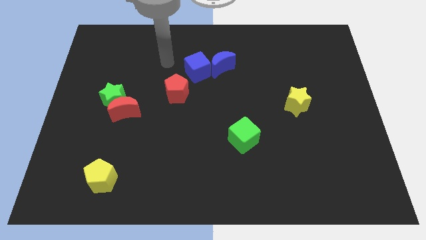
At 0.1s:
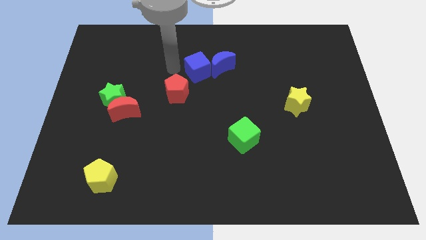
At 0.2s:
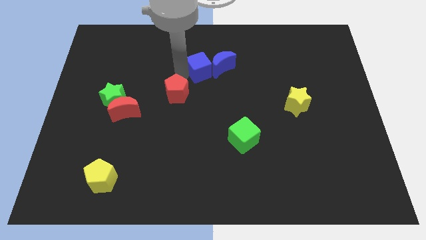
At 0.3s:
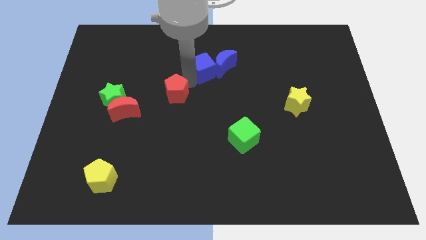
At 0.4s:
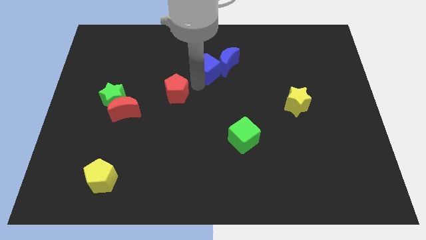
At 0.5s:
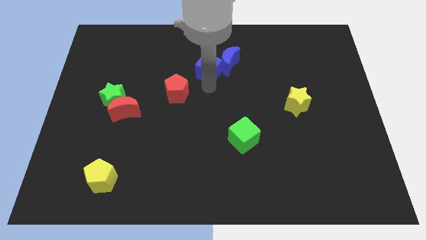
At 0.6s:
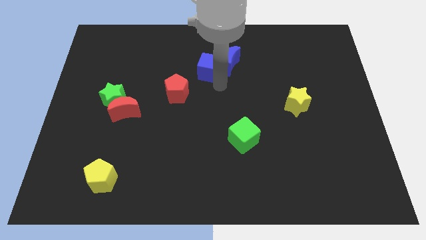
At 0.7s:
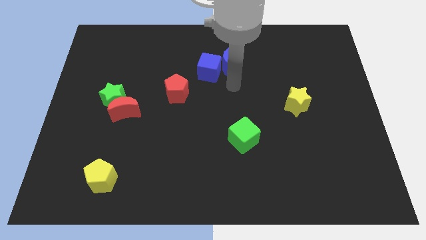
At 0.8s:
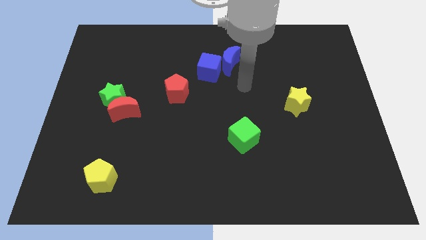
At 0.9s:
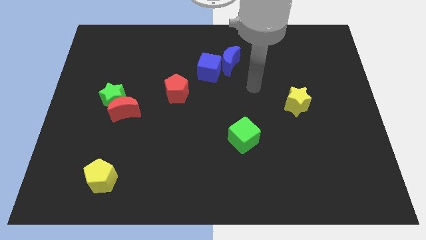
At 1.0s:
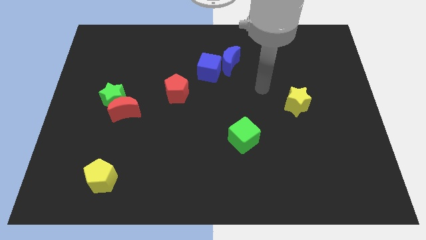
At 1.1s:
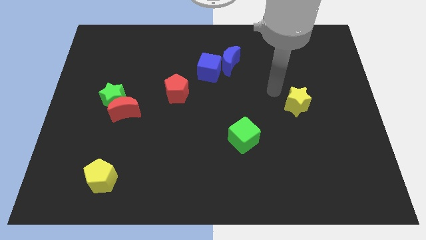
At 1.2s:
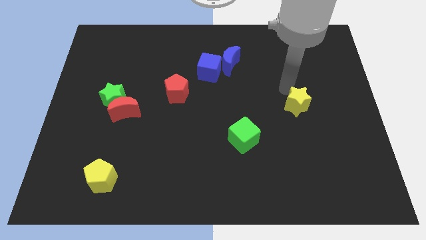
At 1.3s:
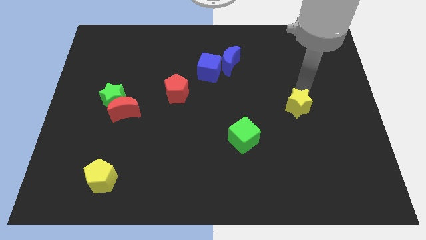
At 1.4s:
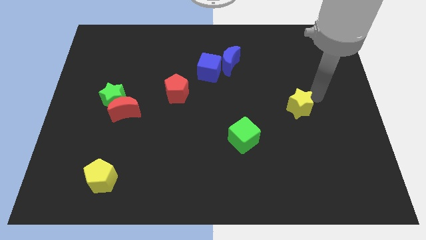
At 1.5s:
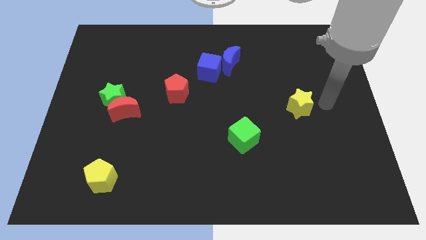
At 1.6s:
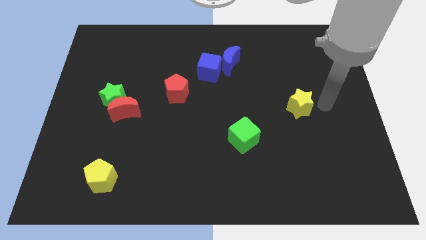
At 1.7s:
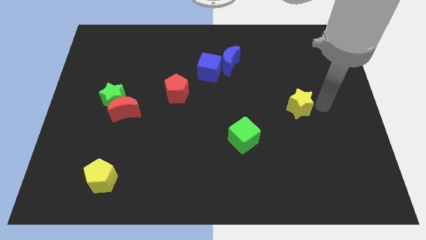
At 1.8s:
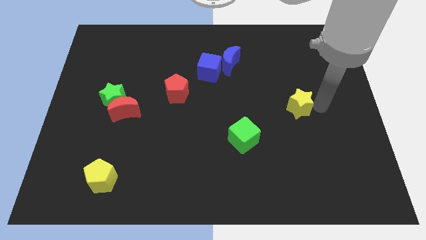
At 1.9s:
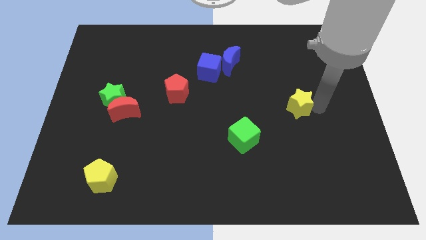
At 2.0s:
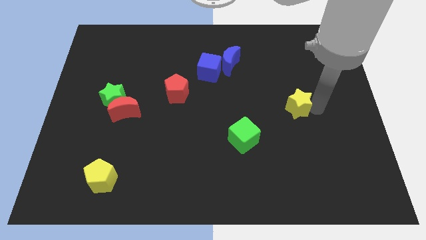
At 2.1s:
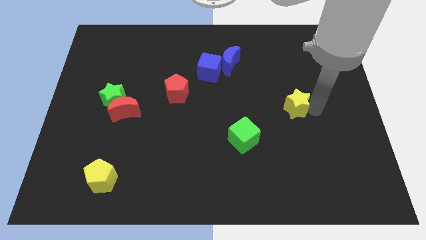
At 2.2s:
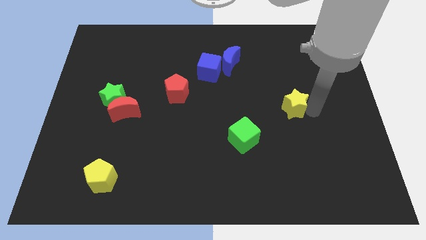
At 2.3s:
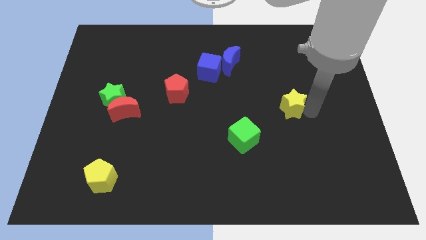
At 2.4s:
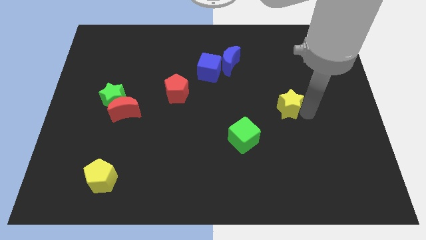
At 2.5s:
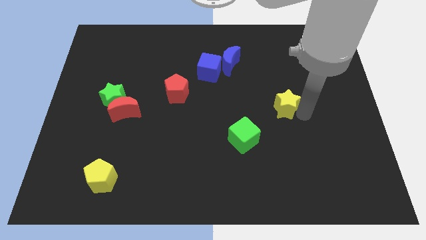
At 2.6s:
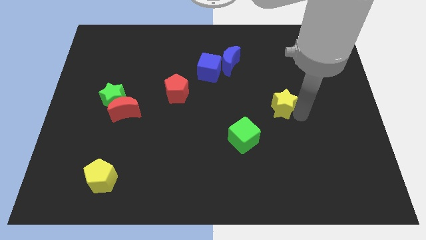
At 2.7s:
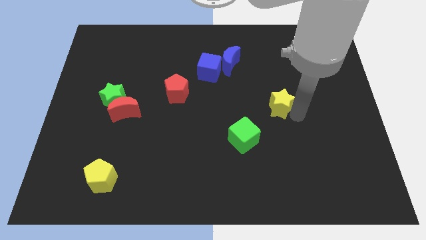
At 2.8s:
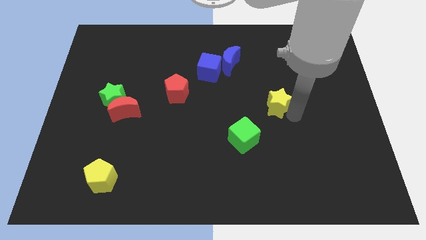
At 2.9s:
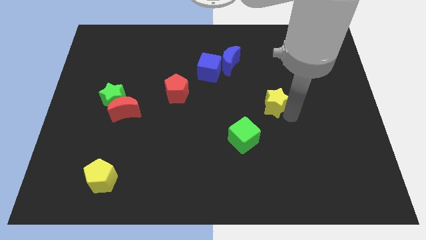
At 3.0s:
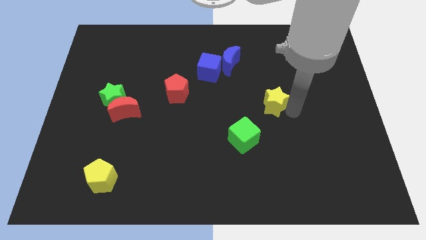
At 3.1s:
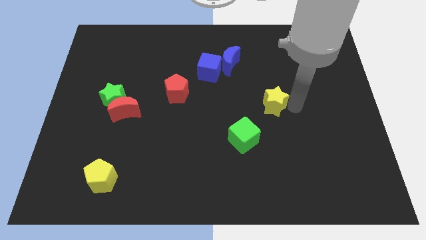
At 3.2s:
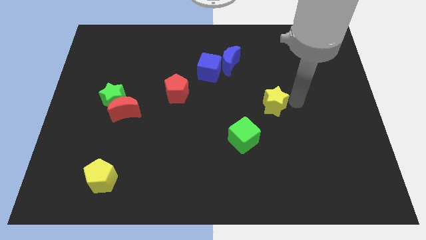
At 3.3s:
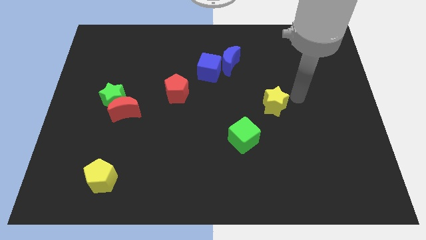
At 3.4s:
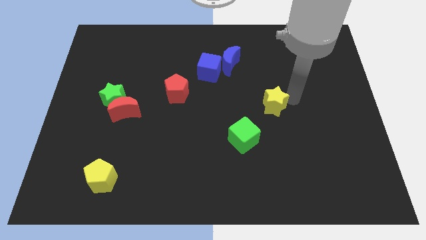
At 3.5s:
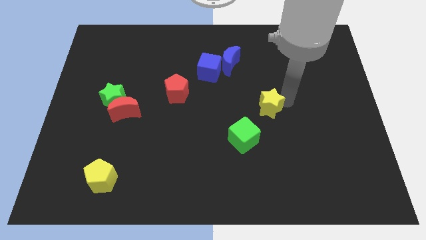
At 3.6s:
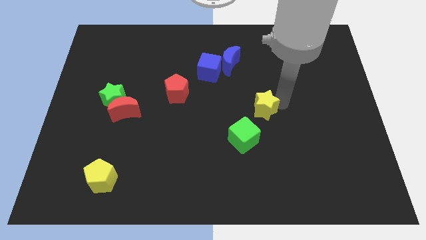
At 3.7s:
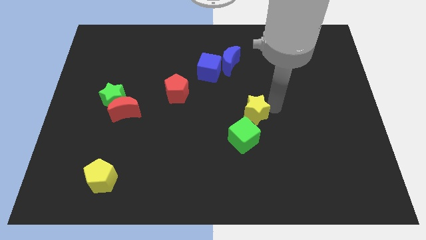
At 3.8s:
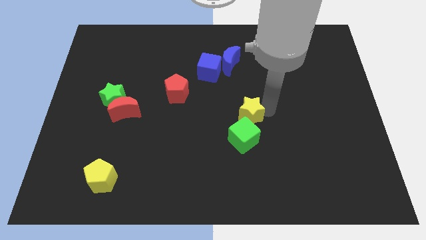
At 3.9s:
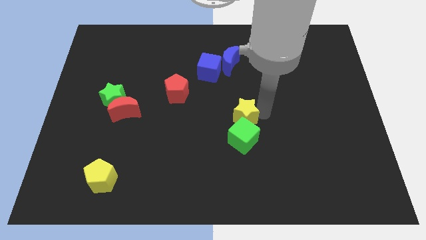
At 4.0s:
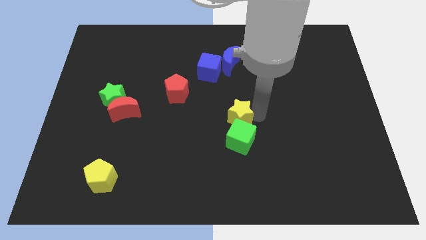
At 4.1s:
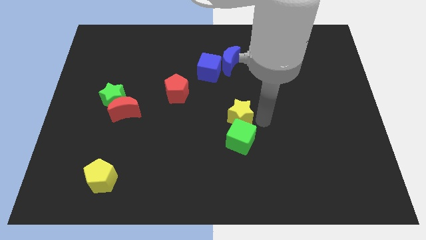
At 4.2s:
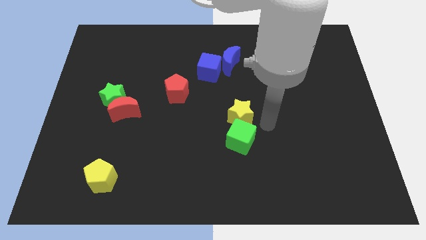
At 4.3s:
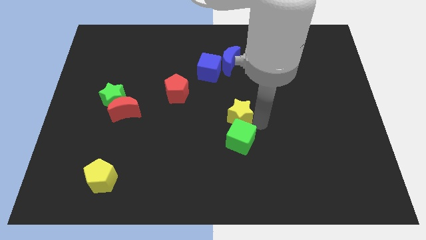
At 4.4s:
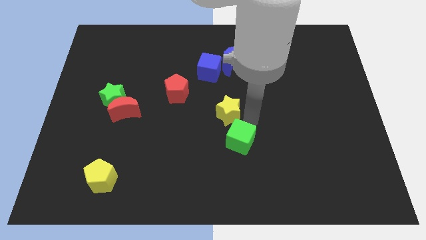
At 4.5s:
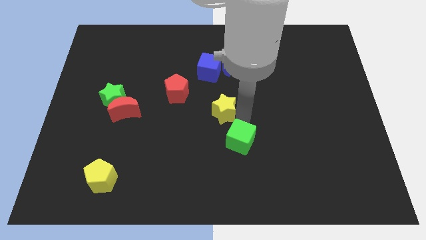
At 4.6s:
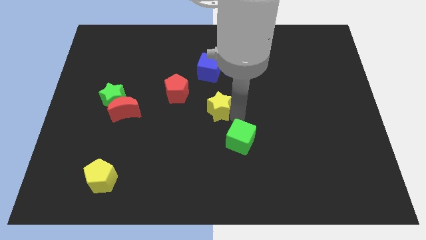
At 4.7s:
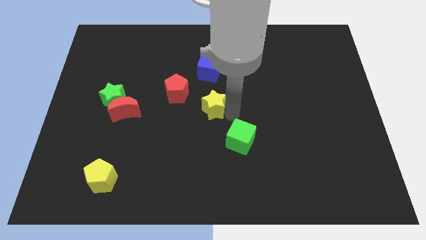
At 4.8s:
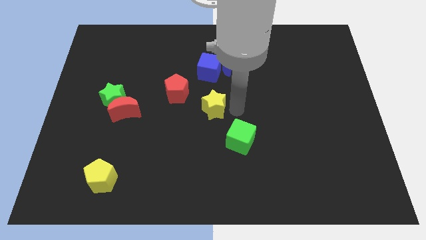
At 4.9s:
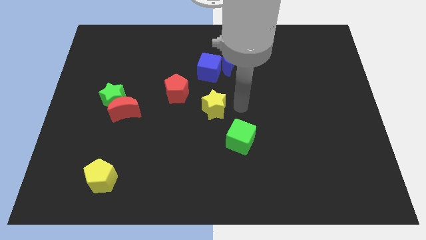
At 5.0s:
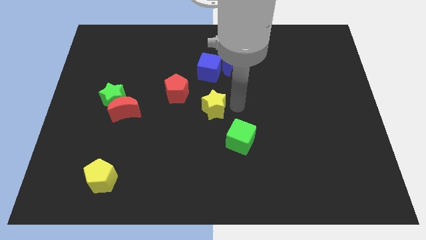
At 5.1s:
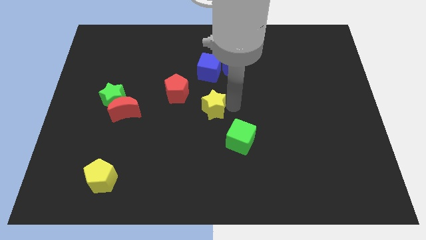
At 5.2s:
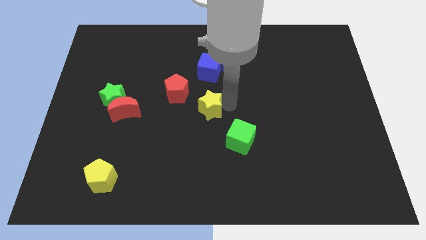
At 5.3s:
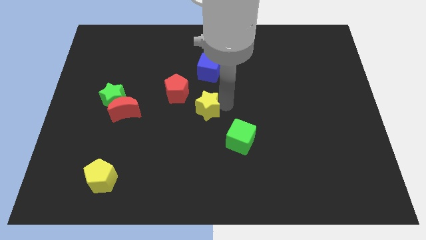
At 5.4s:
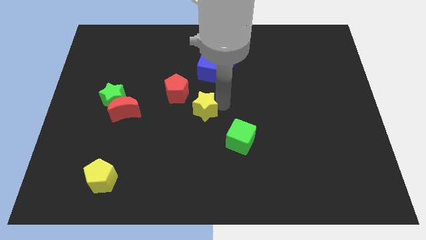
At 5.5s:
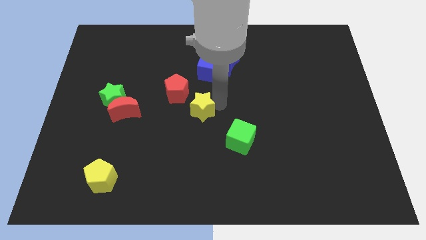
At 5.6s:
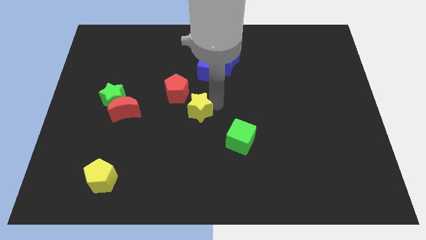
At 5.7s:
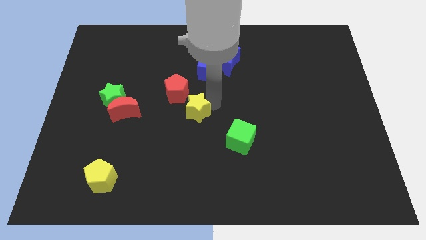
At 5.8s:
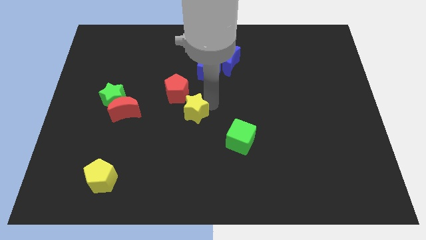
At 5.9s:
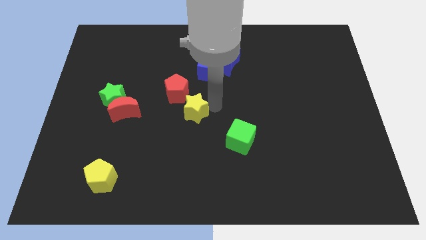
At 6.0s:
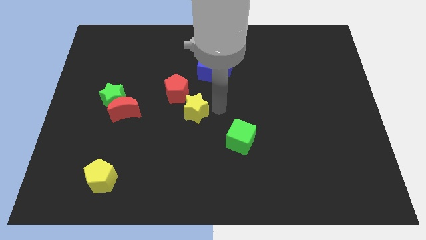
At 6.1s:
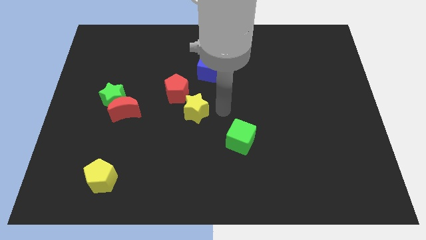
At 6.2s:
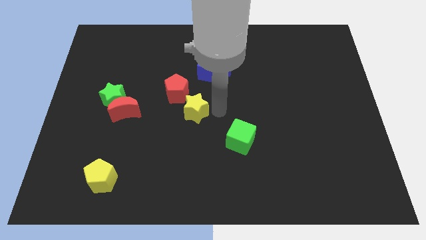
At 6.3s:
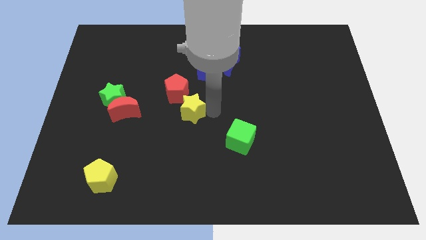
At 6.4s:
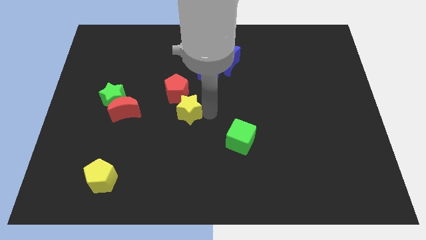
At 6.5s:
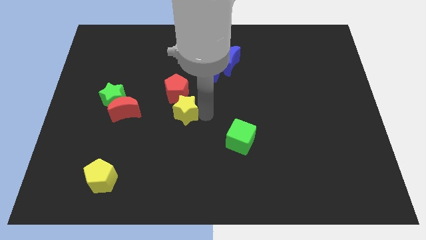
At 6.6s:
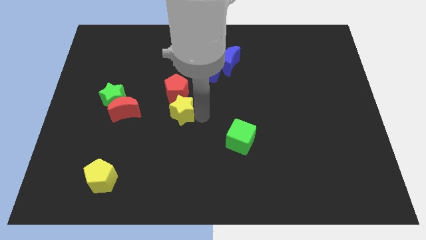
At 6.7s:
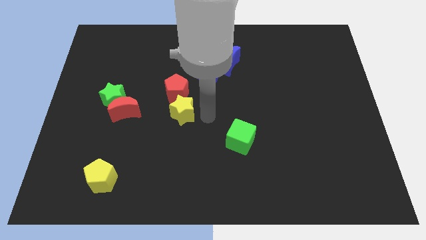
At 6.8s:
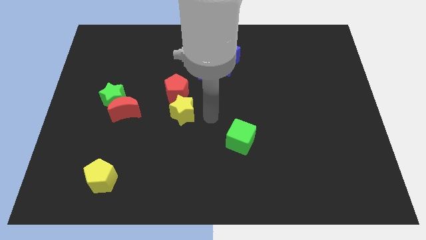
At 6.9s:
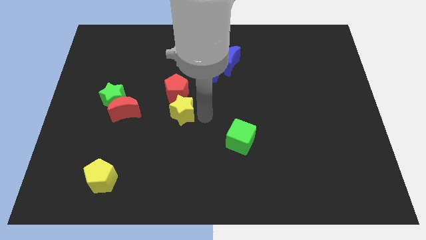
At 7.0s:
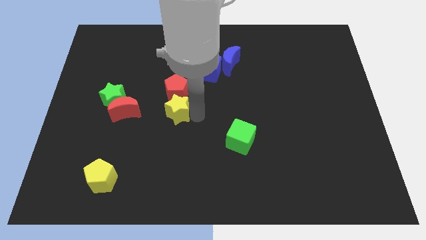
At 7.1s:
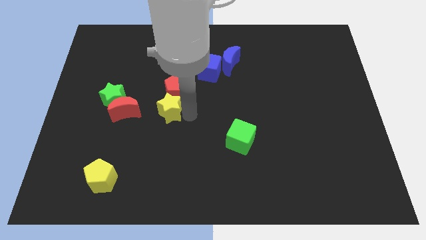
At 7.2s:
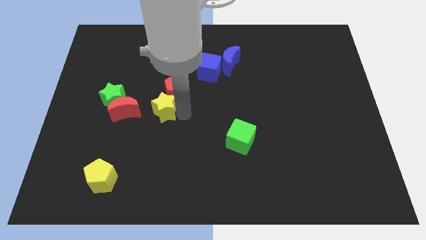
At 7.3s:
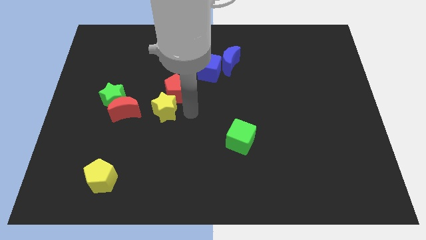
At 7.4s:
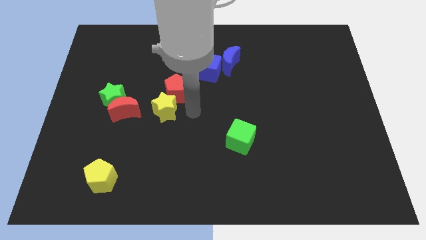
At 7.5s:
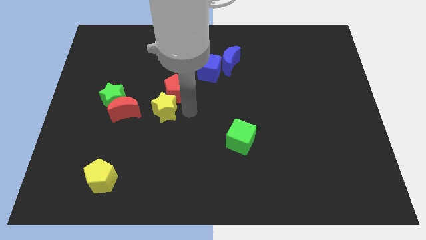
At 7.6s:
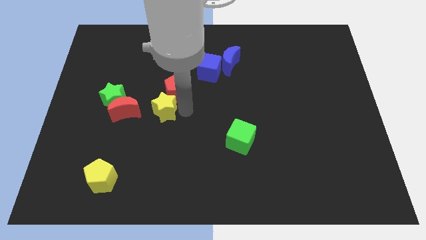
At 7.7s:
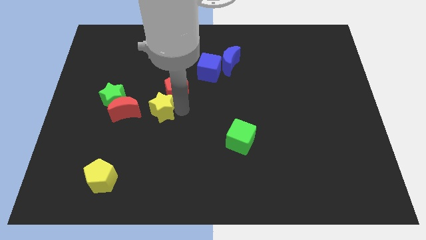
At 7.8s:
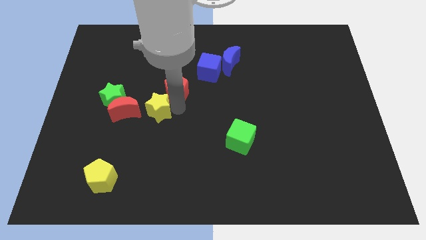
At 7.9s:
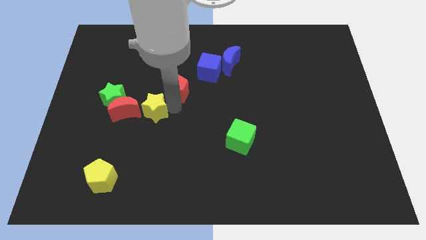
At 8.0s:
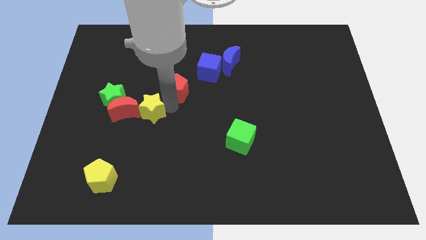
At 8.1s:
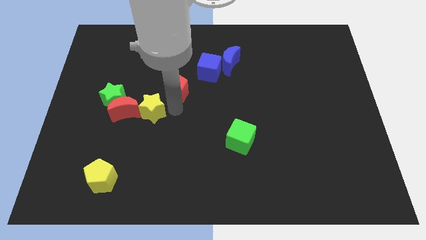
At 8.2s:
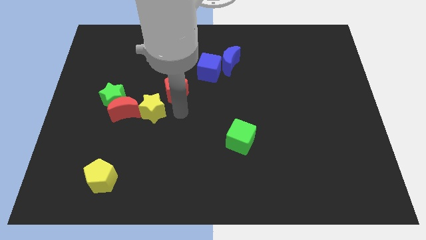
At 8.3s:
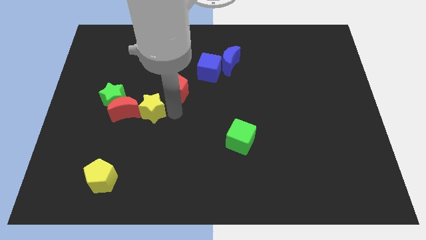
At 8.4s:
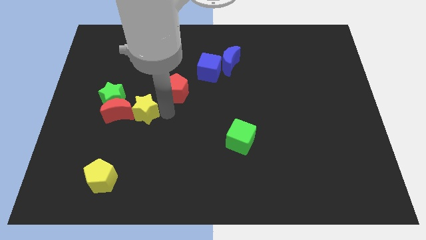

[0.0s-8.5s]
put the yellow star towards the red moon
